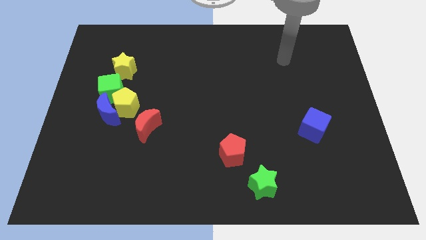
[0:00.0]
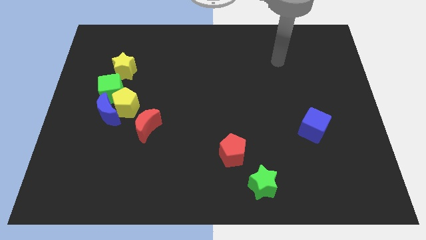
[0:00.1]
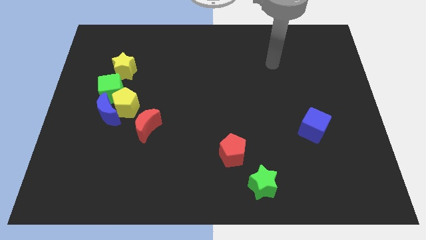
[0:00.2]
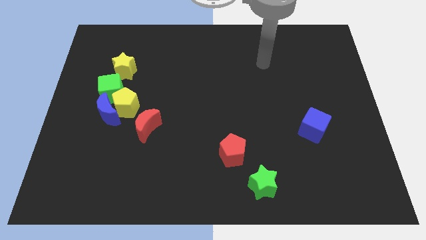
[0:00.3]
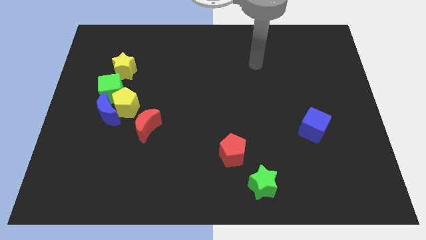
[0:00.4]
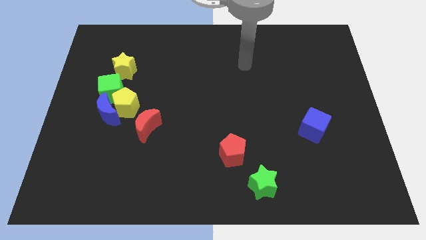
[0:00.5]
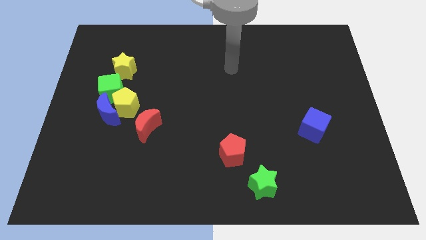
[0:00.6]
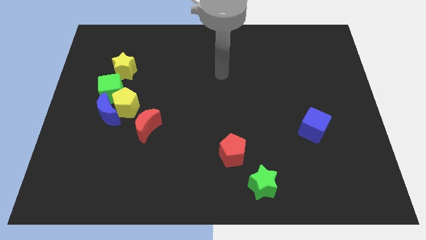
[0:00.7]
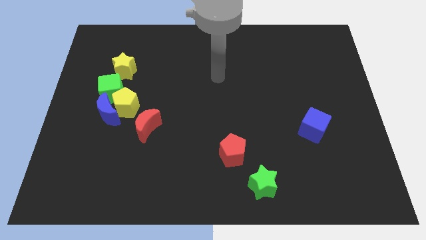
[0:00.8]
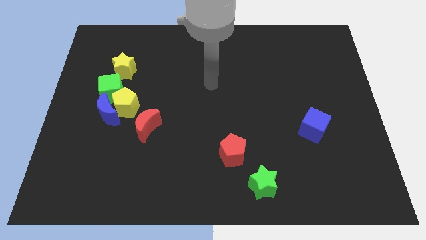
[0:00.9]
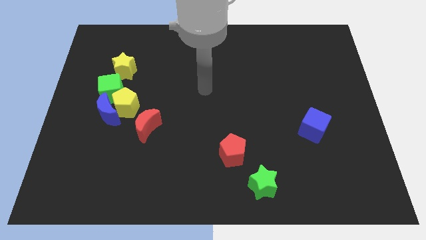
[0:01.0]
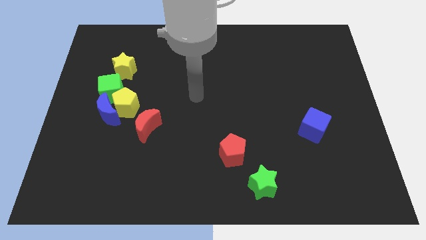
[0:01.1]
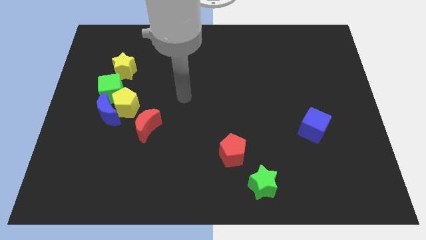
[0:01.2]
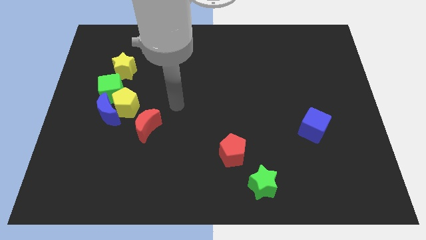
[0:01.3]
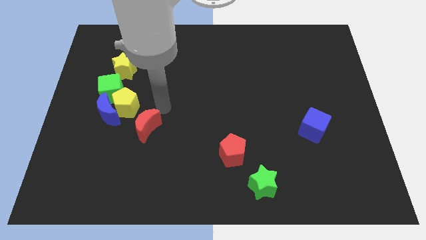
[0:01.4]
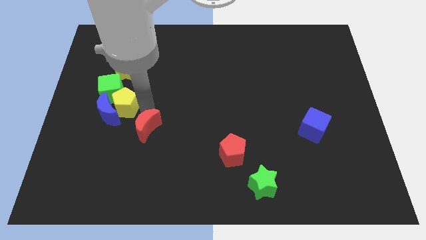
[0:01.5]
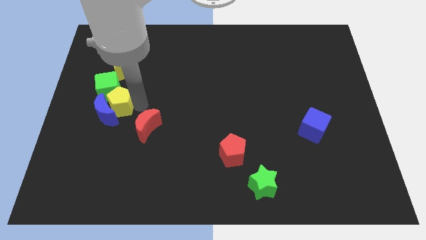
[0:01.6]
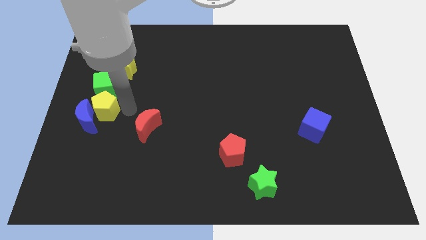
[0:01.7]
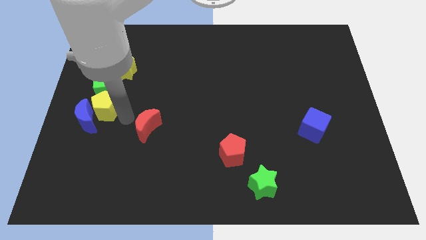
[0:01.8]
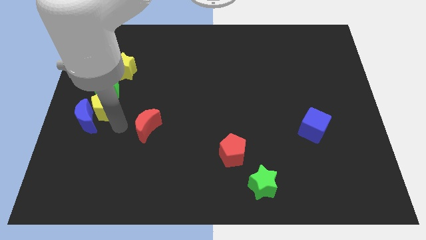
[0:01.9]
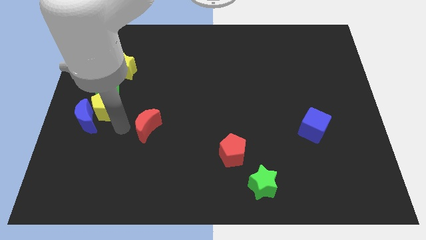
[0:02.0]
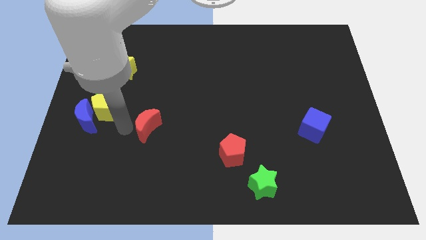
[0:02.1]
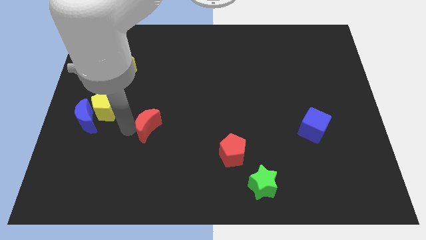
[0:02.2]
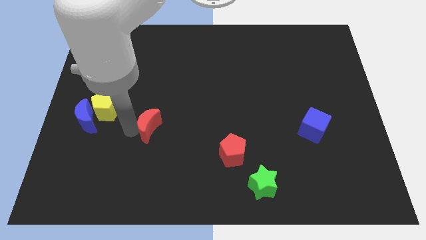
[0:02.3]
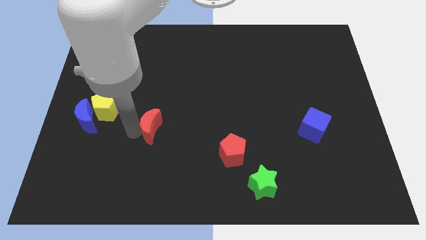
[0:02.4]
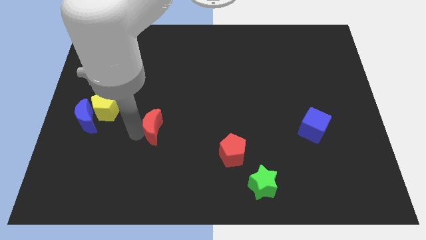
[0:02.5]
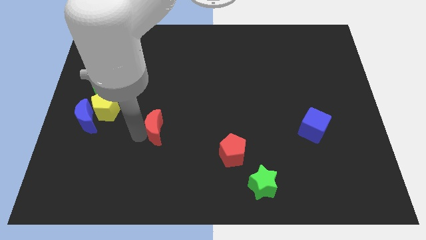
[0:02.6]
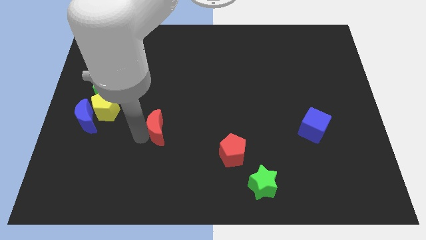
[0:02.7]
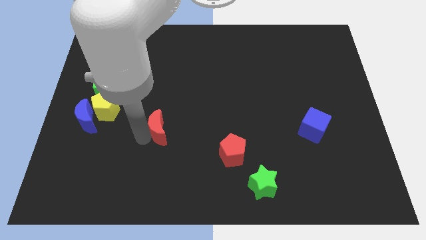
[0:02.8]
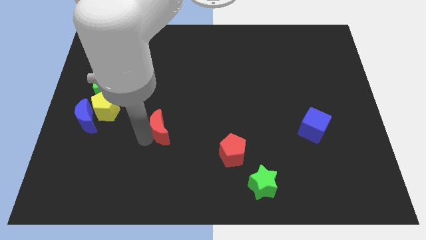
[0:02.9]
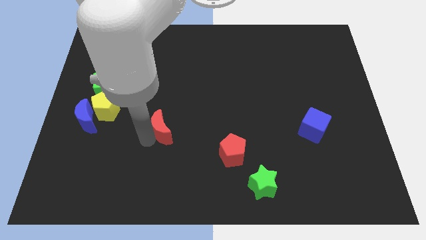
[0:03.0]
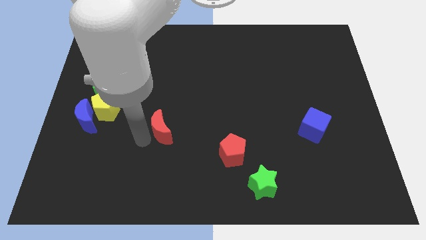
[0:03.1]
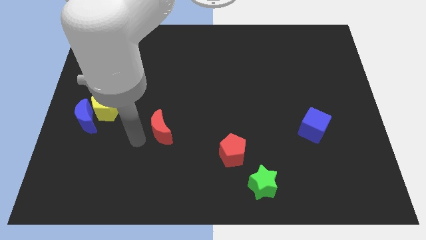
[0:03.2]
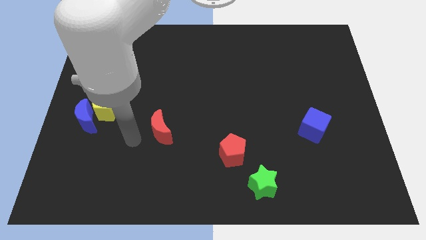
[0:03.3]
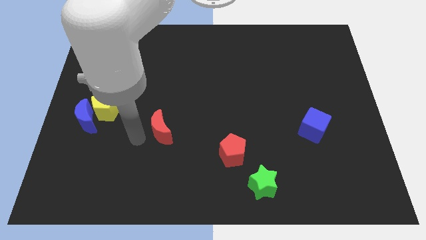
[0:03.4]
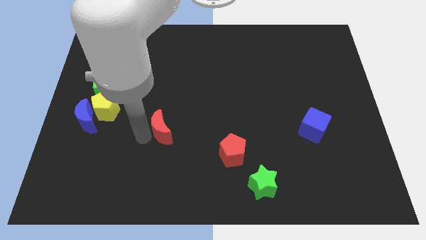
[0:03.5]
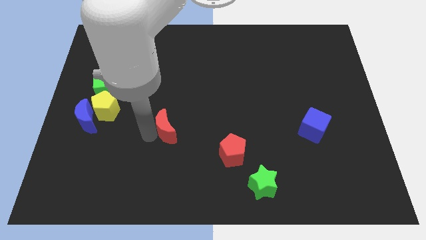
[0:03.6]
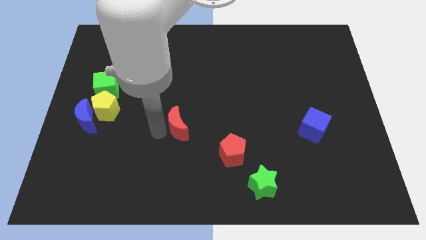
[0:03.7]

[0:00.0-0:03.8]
move the red moon a bit right

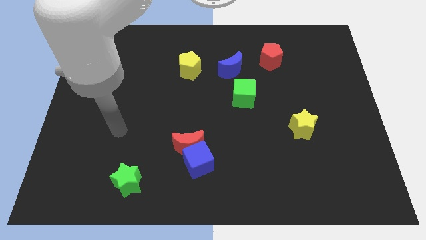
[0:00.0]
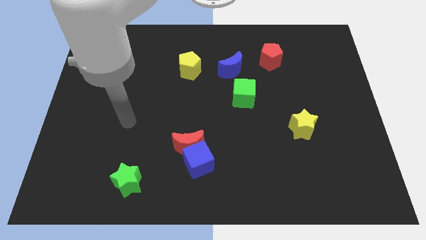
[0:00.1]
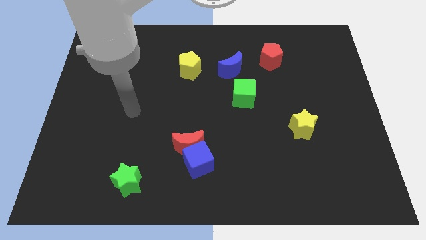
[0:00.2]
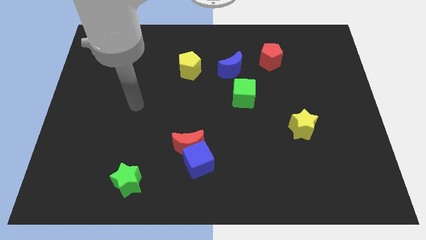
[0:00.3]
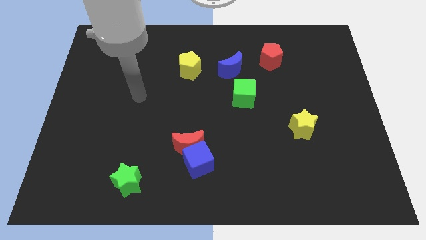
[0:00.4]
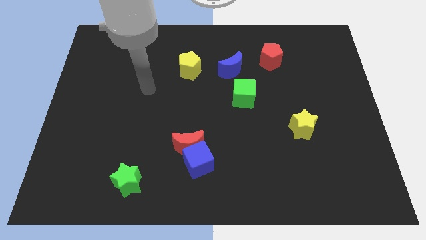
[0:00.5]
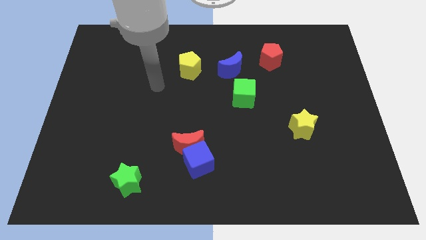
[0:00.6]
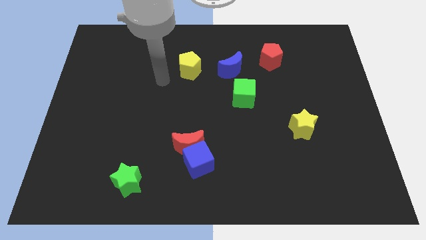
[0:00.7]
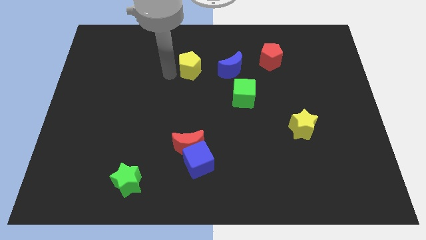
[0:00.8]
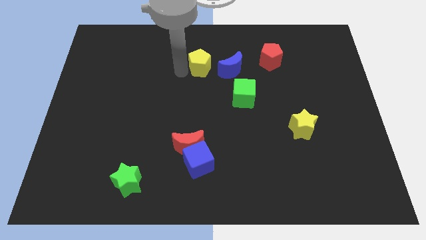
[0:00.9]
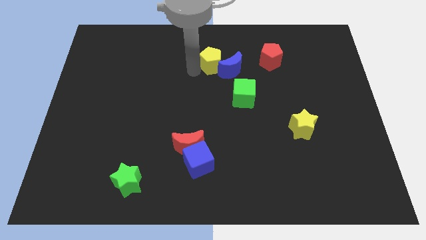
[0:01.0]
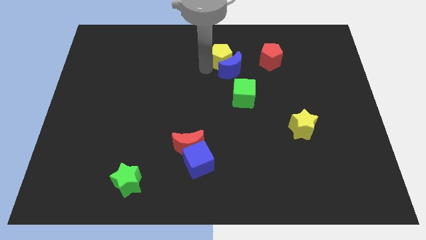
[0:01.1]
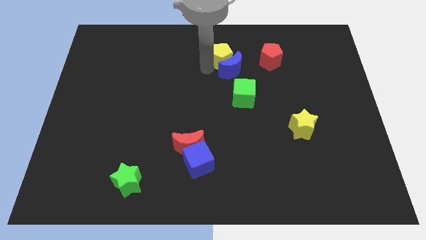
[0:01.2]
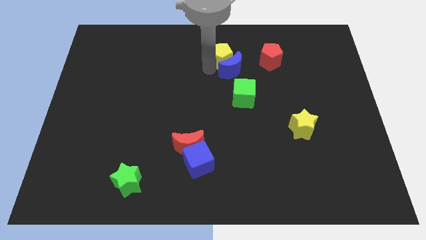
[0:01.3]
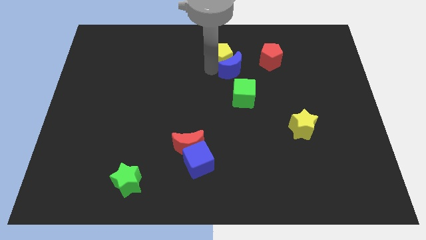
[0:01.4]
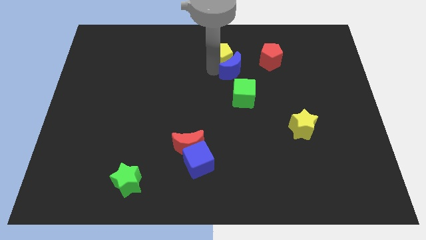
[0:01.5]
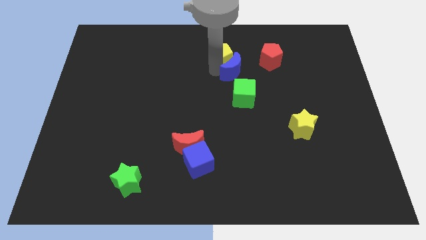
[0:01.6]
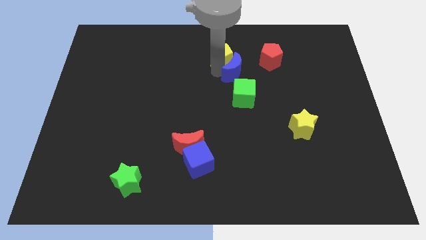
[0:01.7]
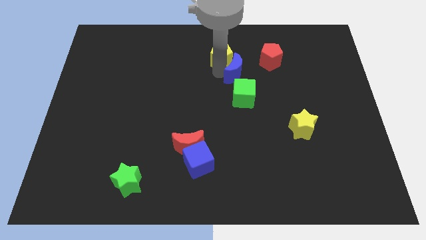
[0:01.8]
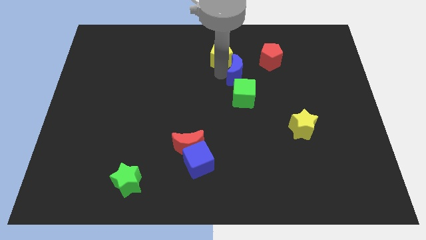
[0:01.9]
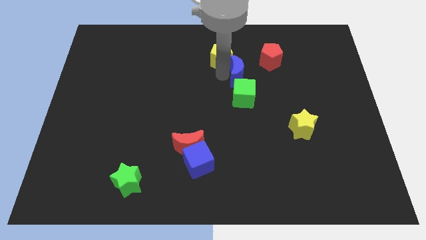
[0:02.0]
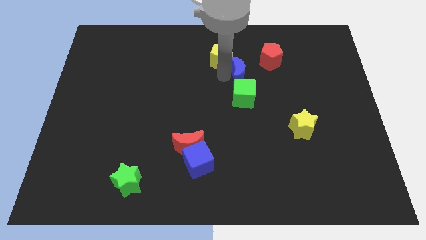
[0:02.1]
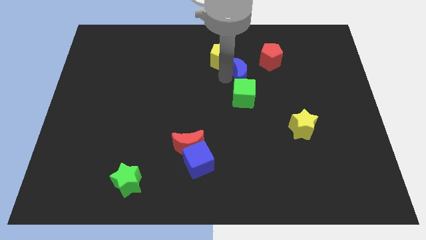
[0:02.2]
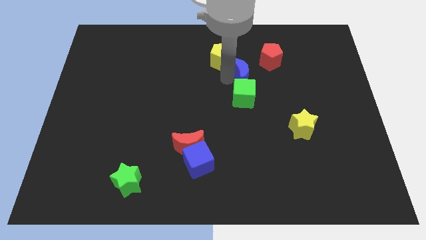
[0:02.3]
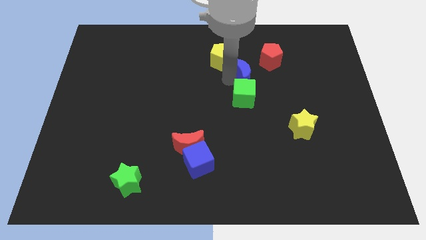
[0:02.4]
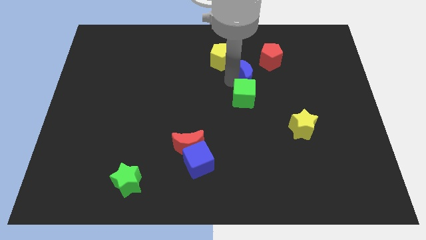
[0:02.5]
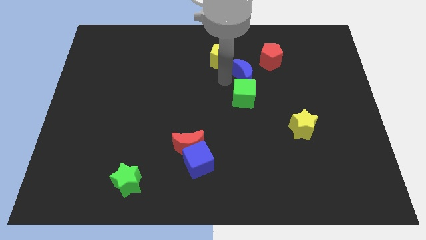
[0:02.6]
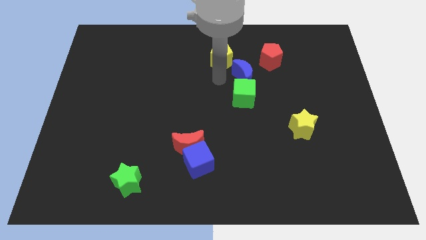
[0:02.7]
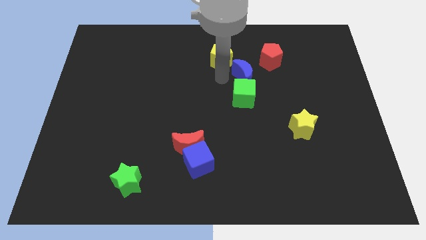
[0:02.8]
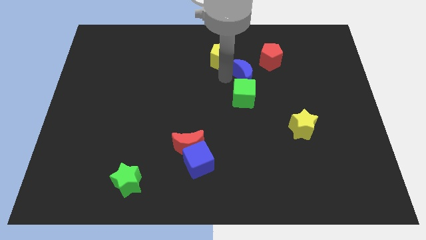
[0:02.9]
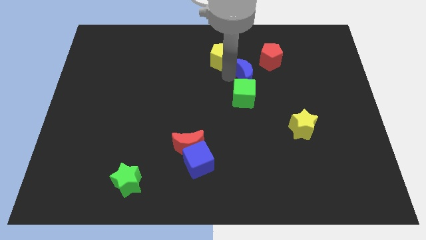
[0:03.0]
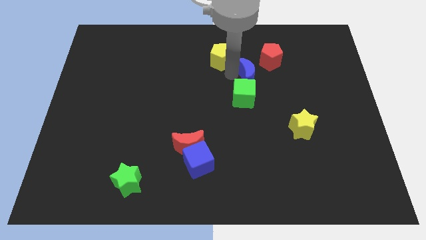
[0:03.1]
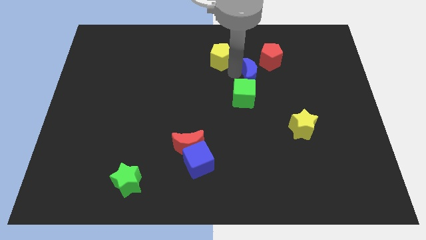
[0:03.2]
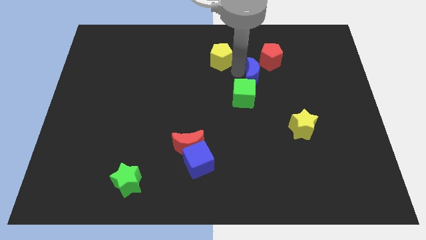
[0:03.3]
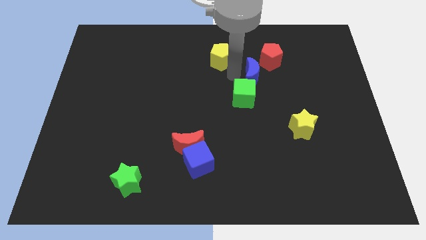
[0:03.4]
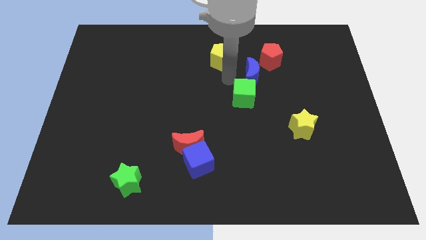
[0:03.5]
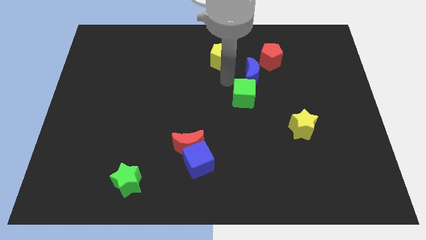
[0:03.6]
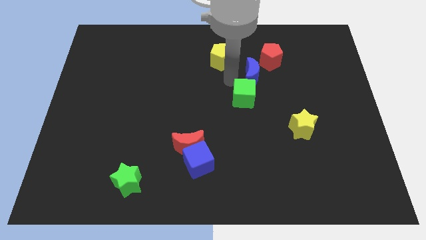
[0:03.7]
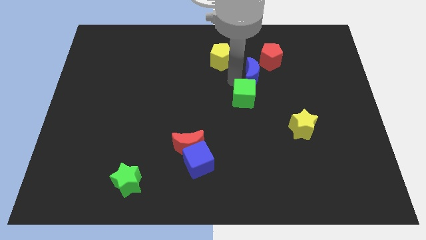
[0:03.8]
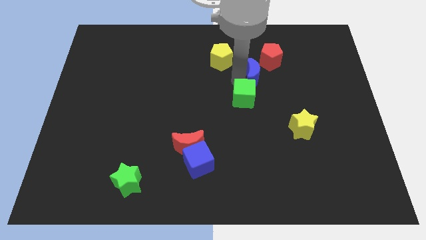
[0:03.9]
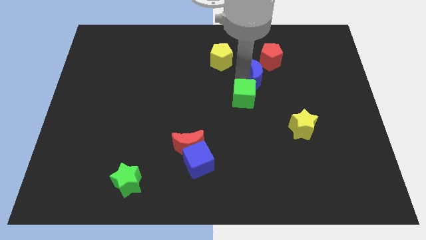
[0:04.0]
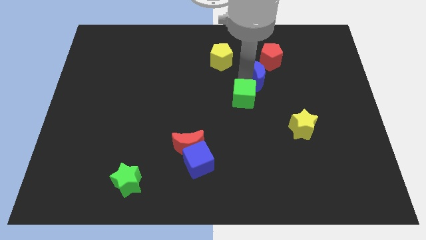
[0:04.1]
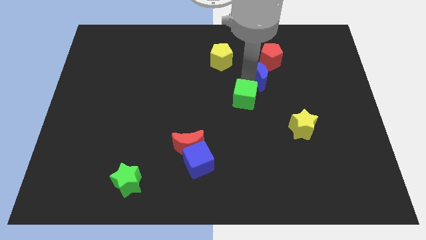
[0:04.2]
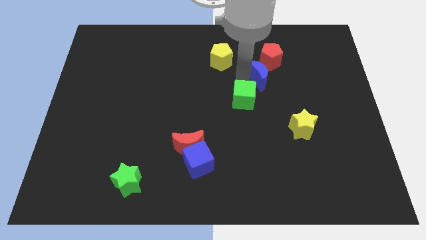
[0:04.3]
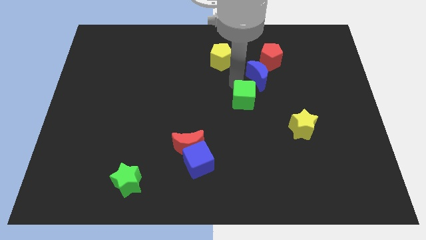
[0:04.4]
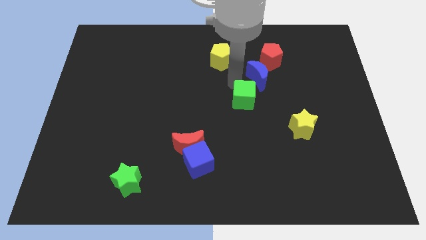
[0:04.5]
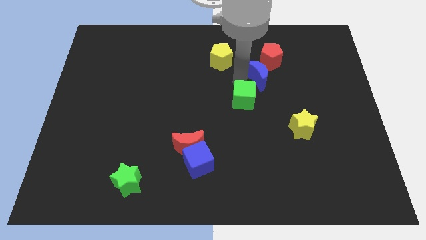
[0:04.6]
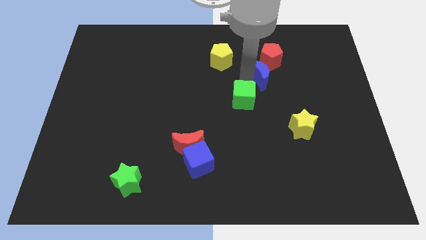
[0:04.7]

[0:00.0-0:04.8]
slide the blue moon to the right somewhat
